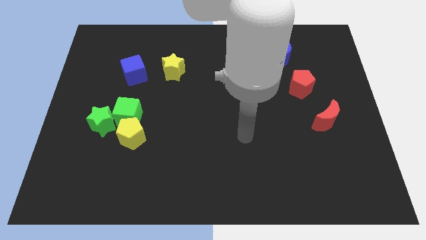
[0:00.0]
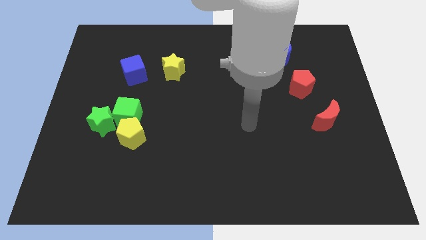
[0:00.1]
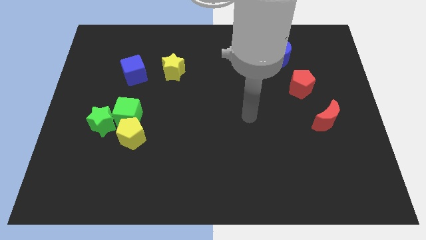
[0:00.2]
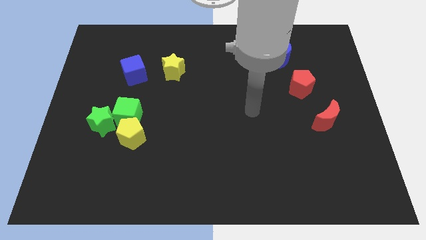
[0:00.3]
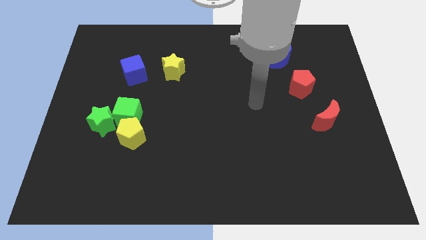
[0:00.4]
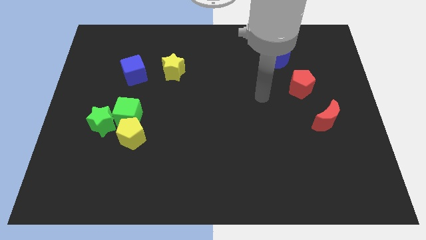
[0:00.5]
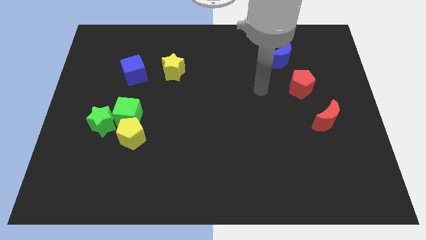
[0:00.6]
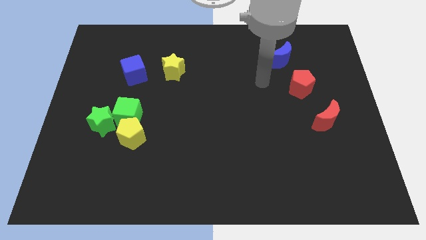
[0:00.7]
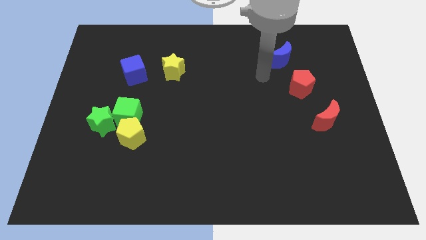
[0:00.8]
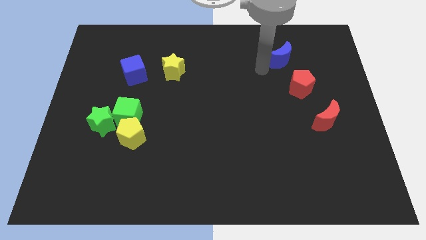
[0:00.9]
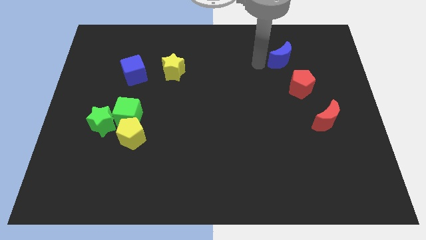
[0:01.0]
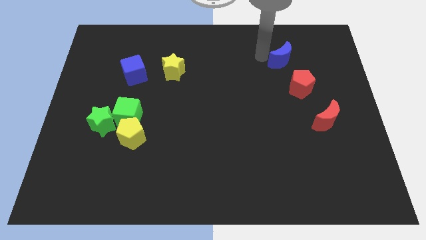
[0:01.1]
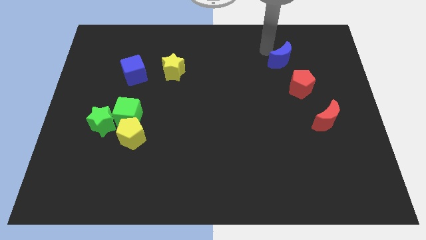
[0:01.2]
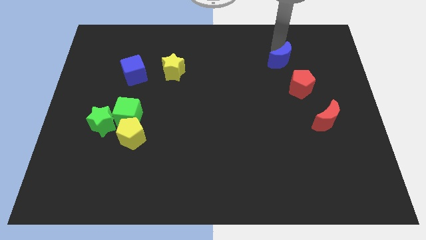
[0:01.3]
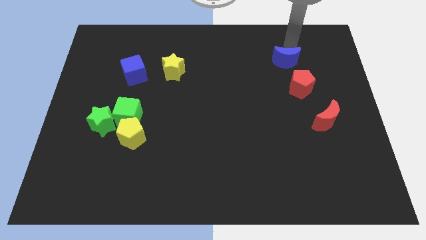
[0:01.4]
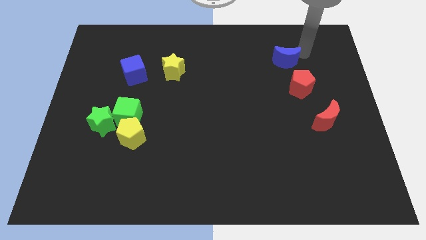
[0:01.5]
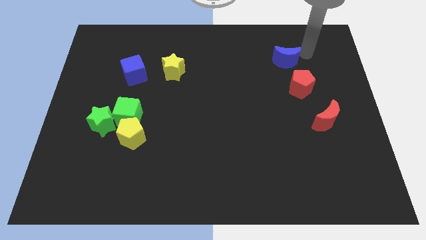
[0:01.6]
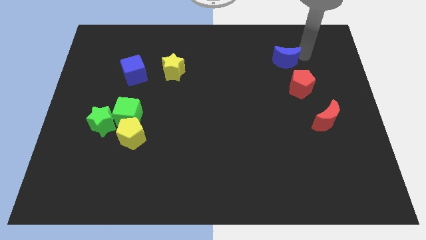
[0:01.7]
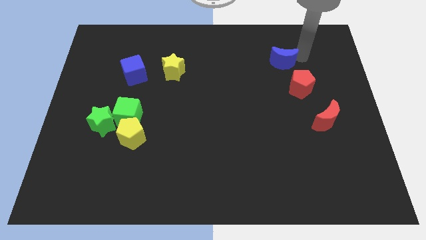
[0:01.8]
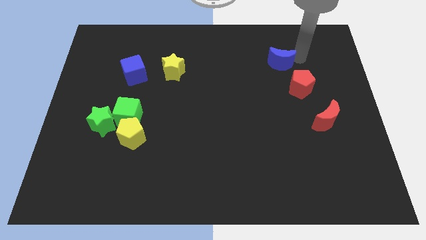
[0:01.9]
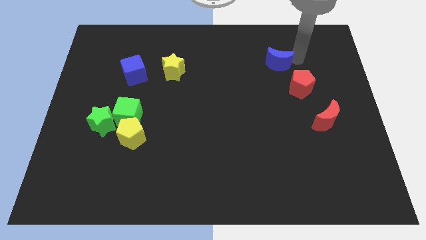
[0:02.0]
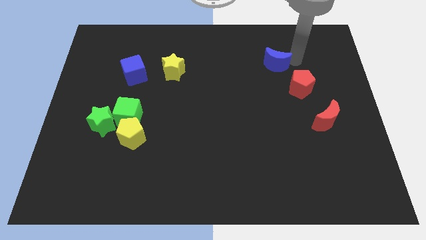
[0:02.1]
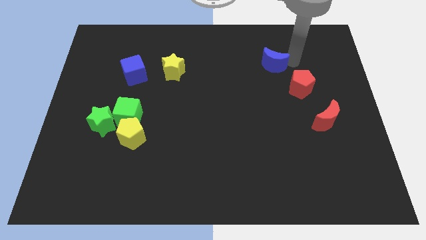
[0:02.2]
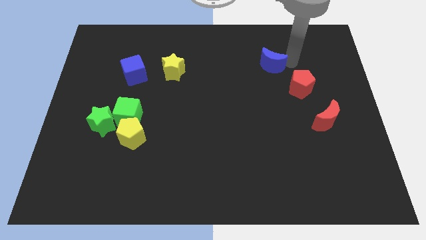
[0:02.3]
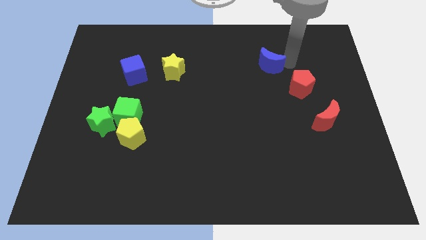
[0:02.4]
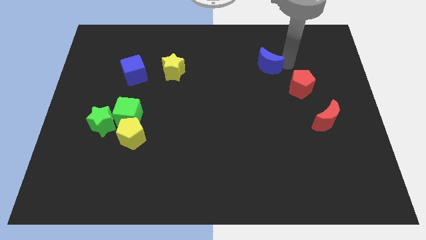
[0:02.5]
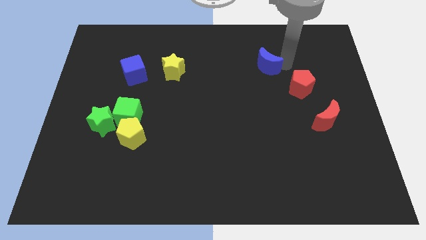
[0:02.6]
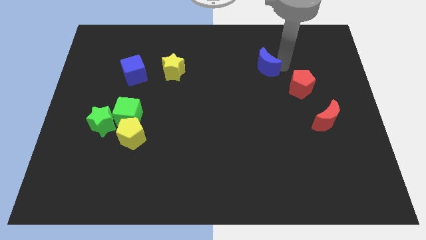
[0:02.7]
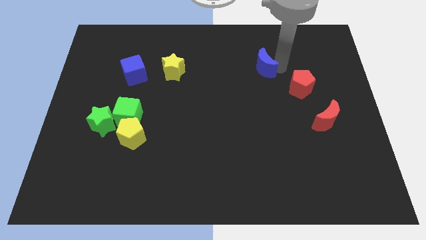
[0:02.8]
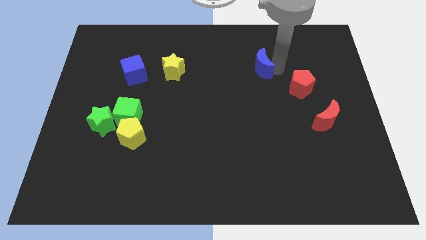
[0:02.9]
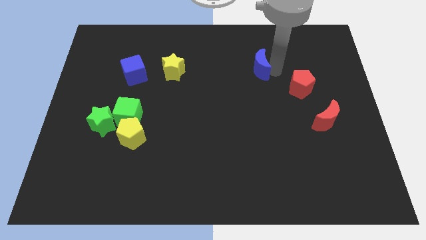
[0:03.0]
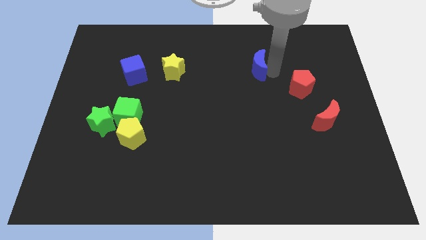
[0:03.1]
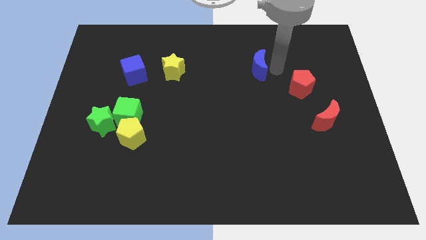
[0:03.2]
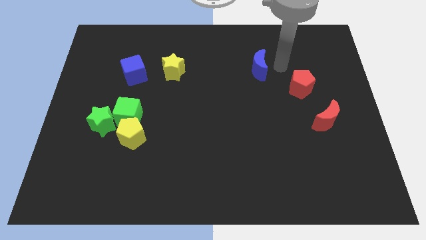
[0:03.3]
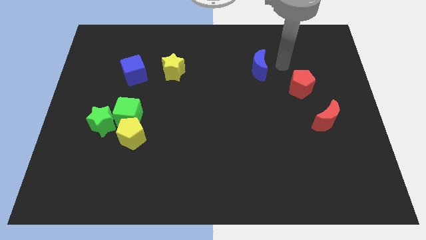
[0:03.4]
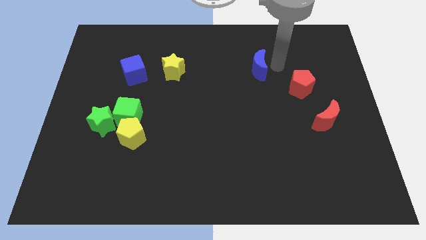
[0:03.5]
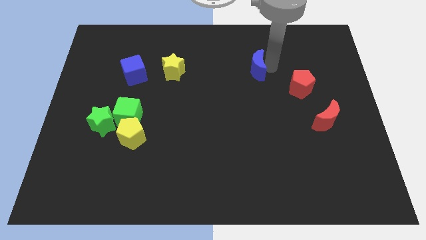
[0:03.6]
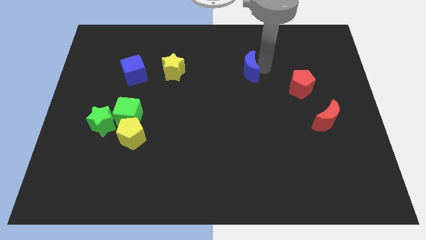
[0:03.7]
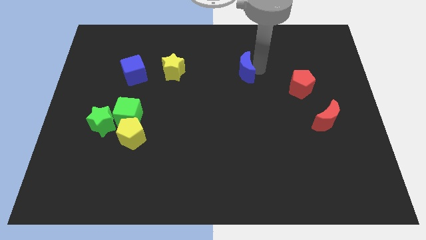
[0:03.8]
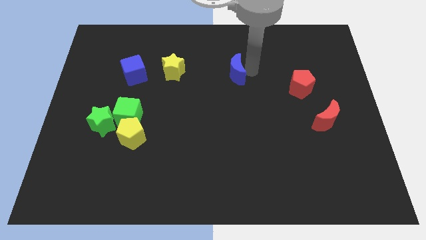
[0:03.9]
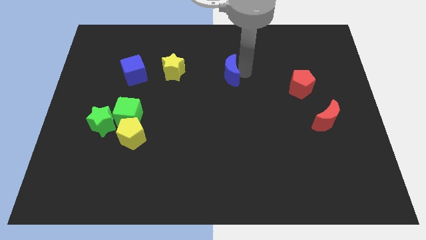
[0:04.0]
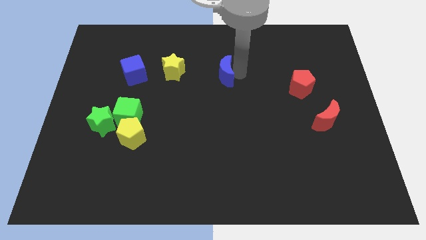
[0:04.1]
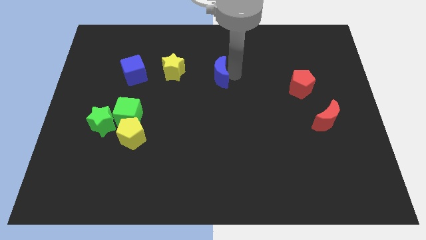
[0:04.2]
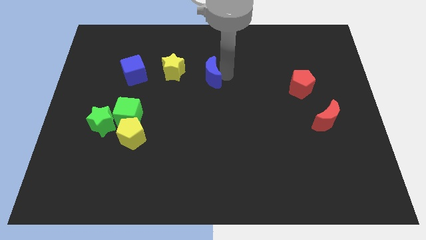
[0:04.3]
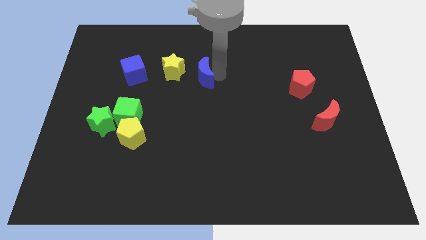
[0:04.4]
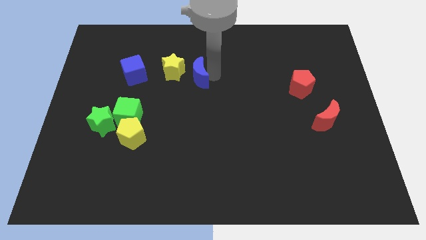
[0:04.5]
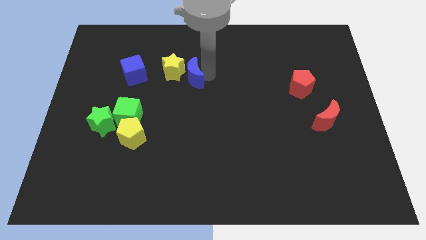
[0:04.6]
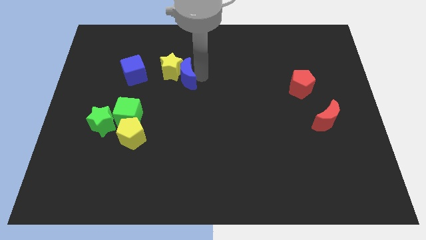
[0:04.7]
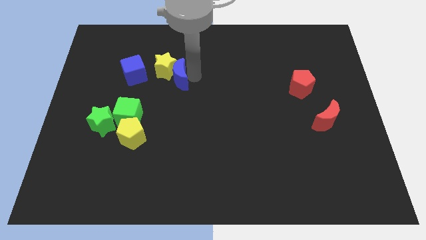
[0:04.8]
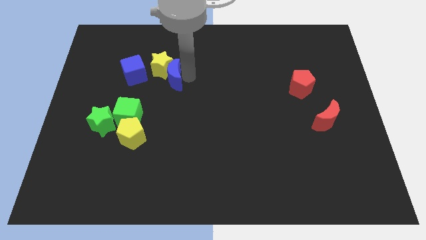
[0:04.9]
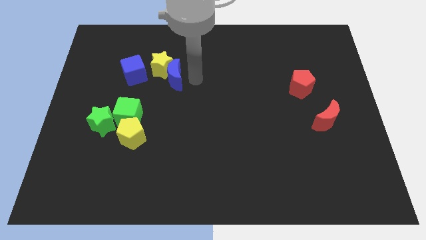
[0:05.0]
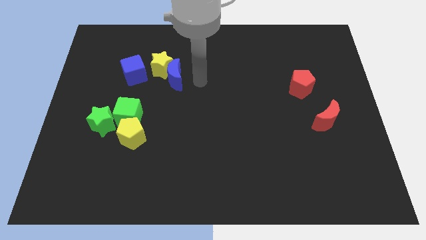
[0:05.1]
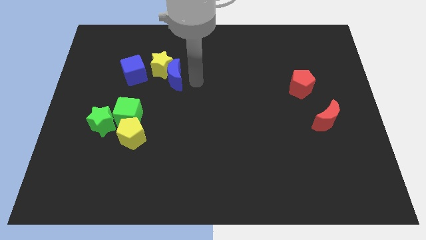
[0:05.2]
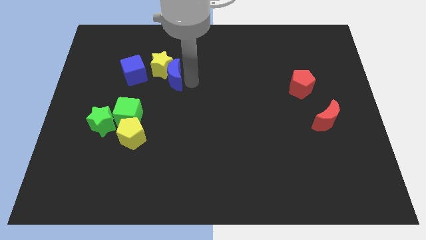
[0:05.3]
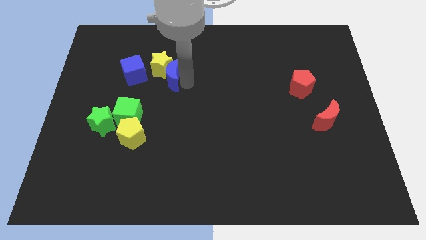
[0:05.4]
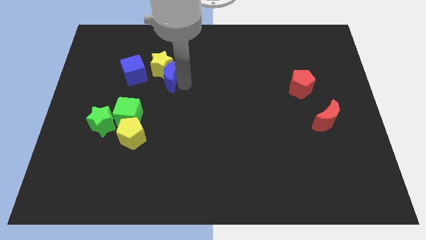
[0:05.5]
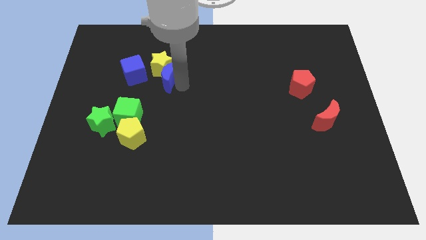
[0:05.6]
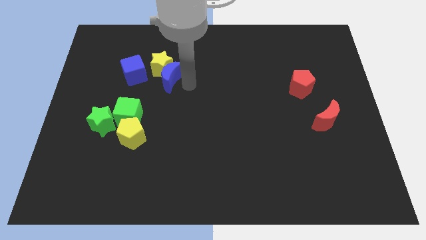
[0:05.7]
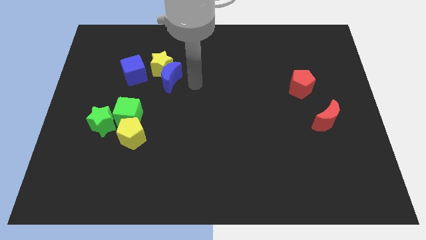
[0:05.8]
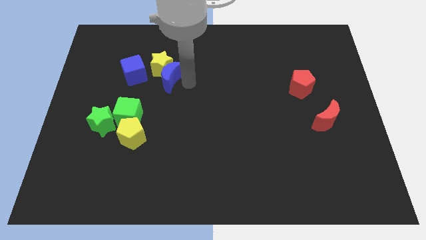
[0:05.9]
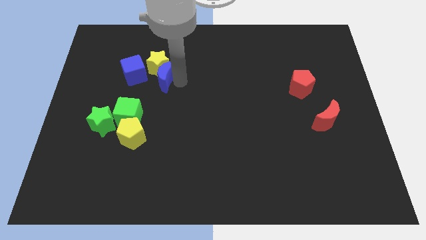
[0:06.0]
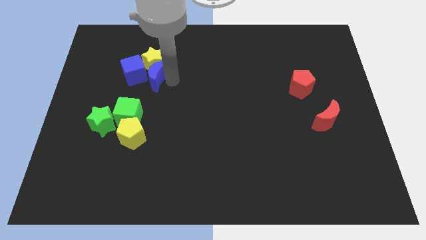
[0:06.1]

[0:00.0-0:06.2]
push the blue moon next to the blue cube

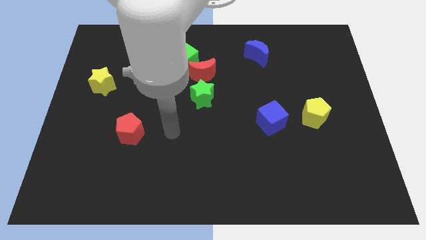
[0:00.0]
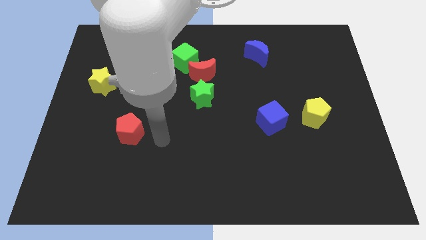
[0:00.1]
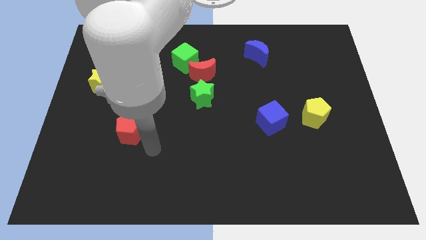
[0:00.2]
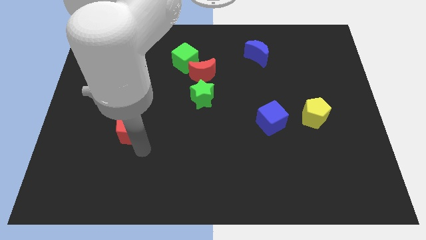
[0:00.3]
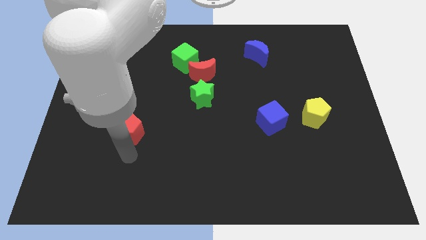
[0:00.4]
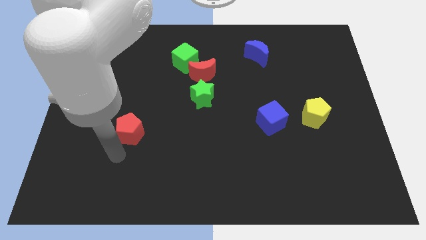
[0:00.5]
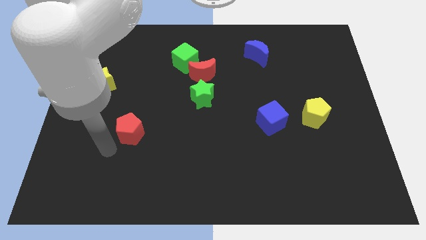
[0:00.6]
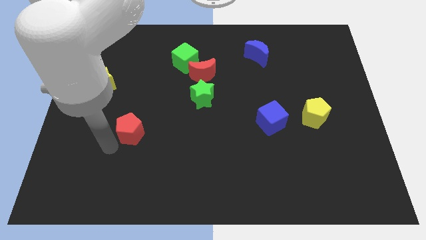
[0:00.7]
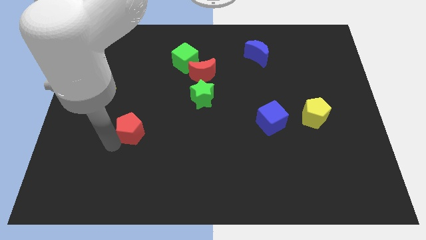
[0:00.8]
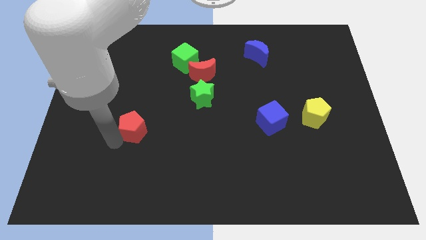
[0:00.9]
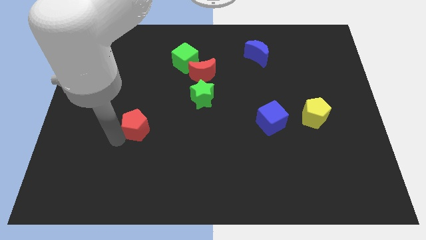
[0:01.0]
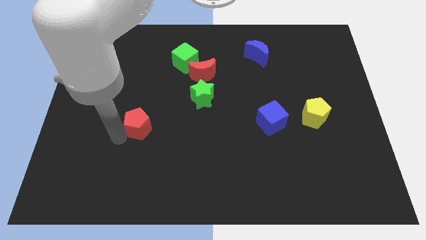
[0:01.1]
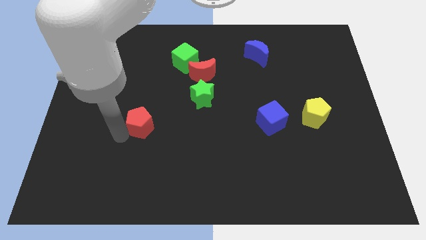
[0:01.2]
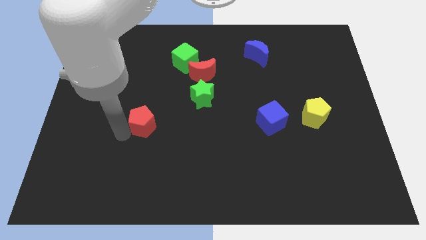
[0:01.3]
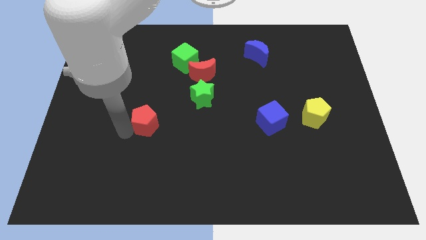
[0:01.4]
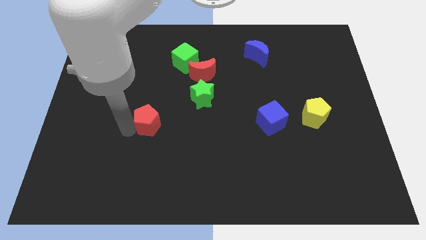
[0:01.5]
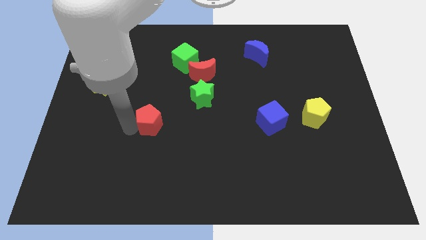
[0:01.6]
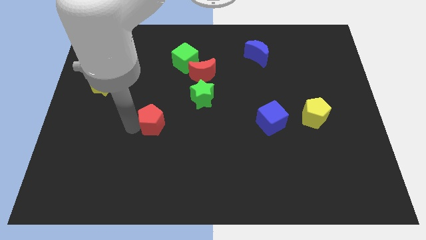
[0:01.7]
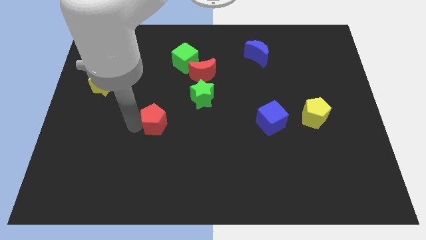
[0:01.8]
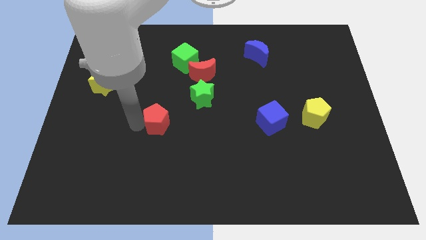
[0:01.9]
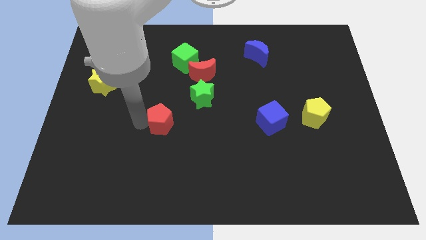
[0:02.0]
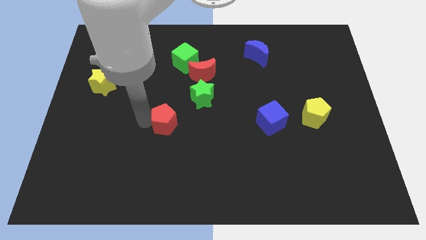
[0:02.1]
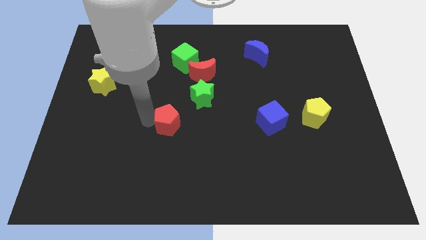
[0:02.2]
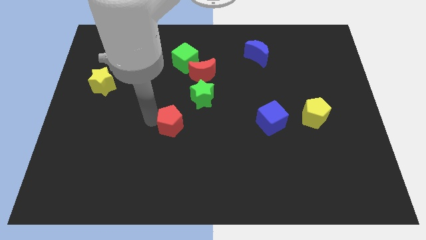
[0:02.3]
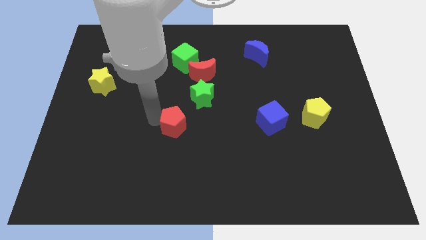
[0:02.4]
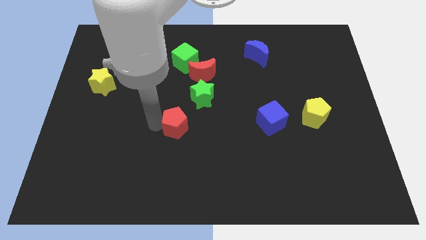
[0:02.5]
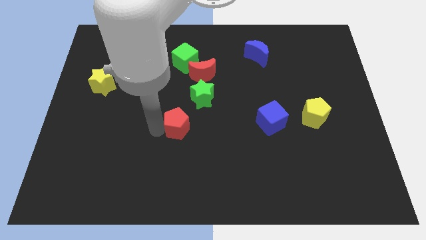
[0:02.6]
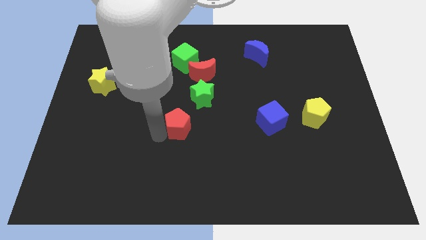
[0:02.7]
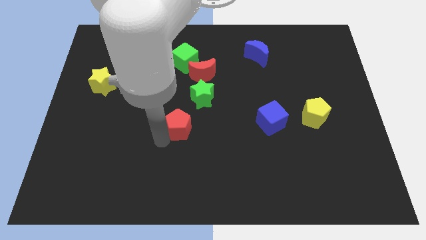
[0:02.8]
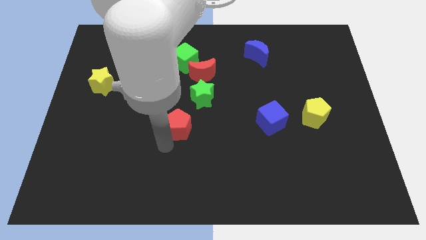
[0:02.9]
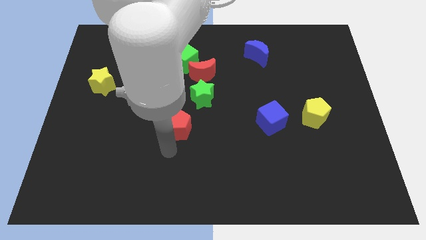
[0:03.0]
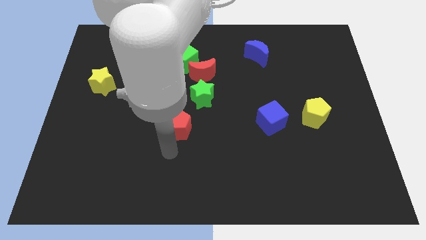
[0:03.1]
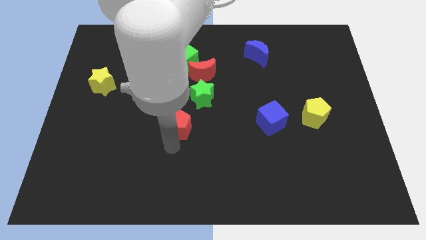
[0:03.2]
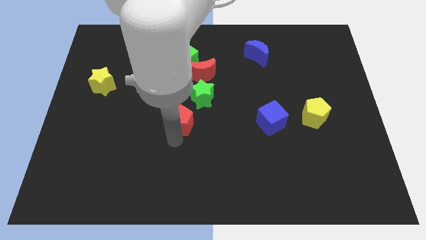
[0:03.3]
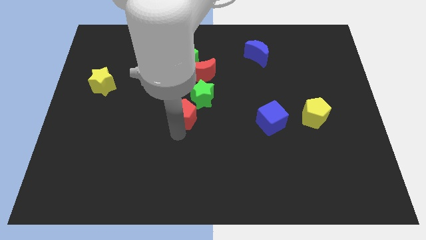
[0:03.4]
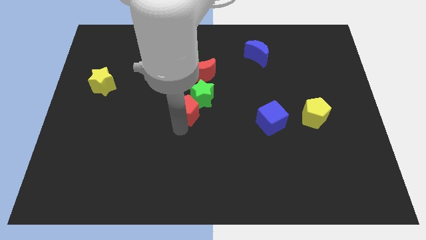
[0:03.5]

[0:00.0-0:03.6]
slide the red pentagon next to the green star
